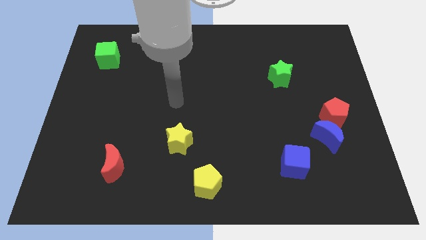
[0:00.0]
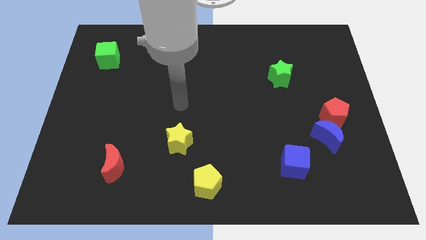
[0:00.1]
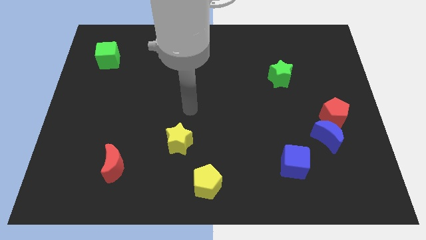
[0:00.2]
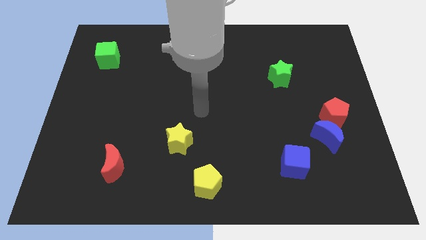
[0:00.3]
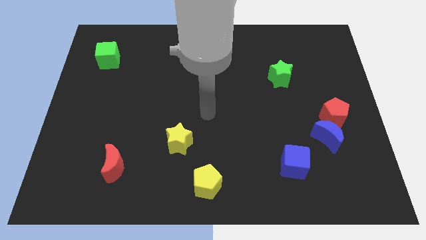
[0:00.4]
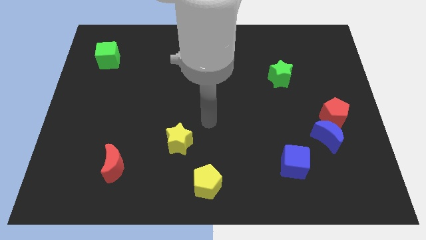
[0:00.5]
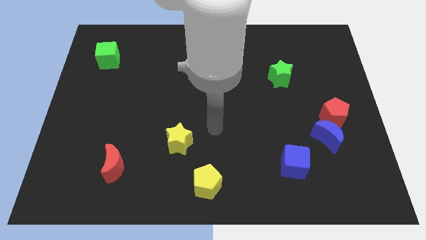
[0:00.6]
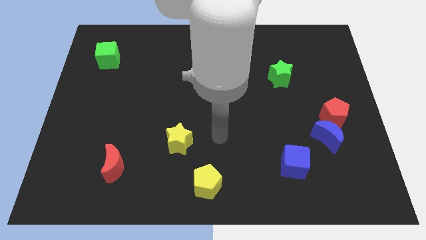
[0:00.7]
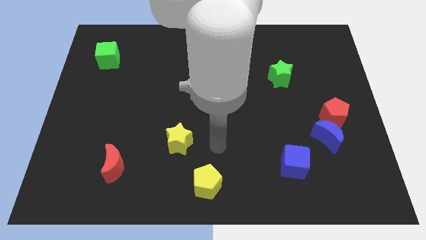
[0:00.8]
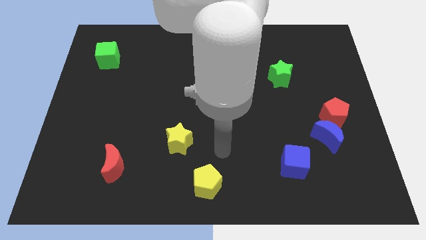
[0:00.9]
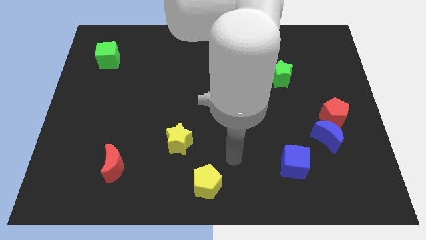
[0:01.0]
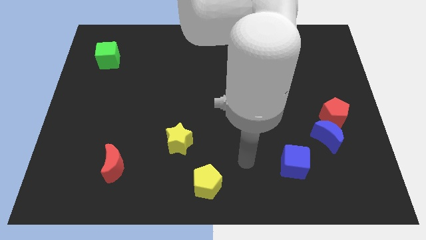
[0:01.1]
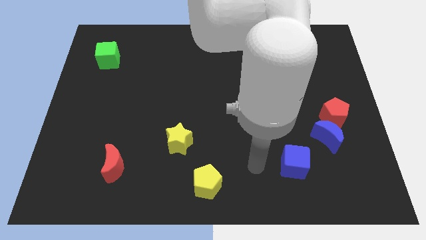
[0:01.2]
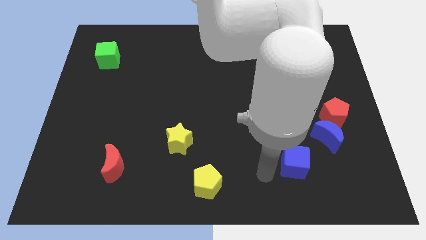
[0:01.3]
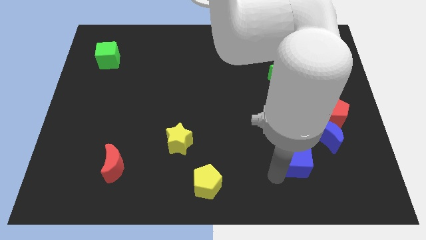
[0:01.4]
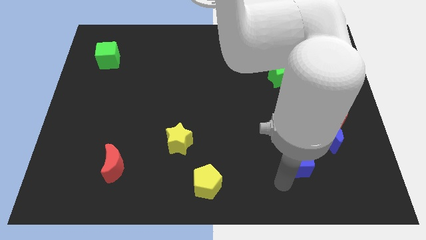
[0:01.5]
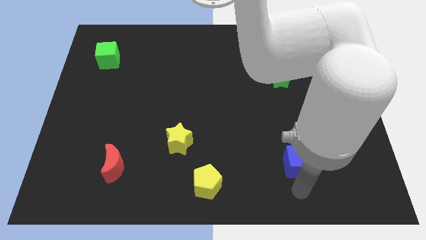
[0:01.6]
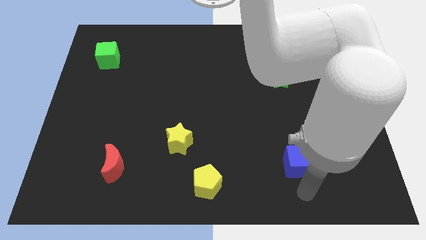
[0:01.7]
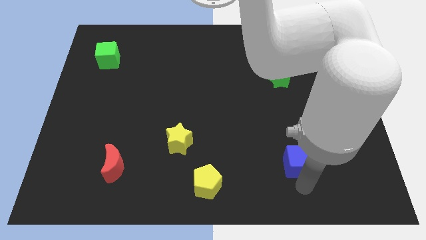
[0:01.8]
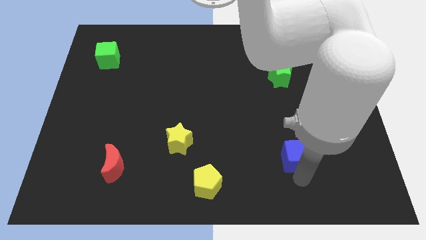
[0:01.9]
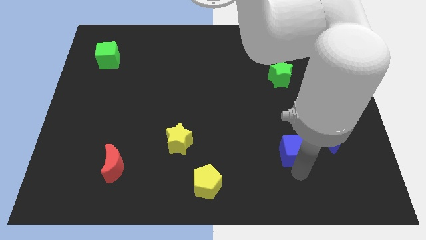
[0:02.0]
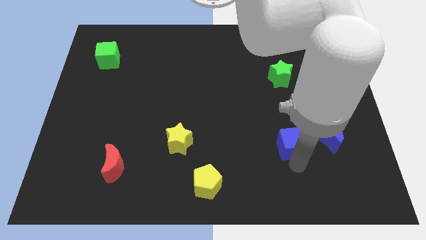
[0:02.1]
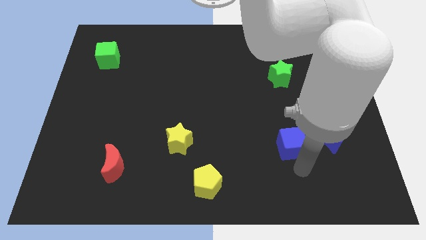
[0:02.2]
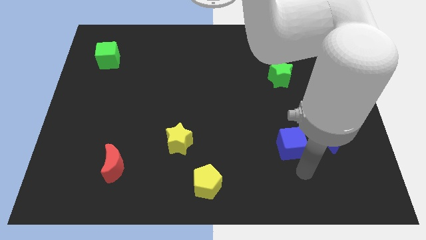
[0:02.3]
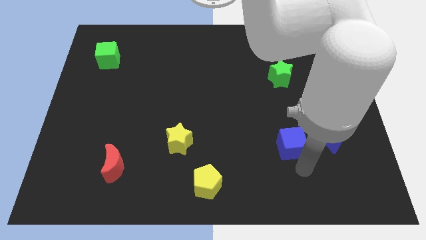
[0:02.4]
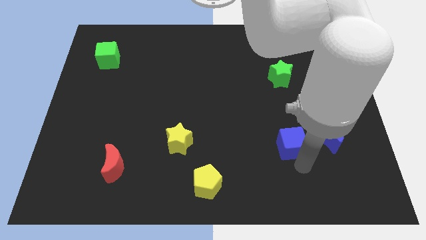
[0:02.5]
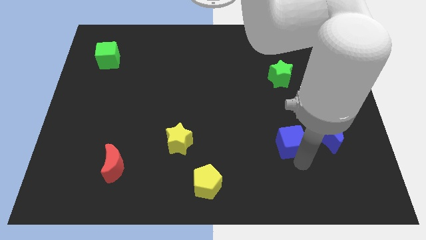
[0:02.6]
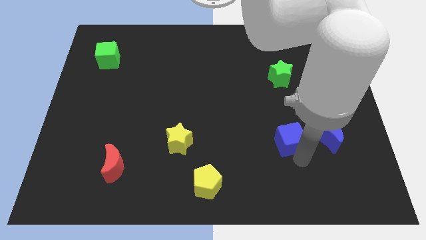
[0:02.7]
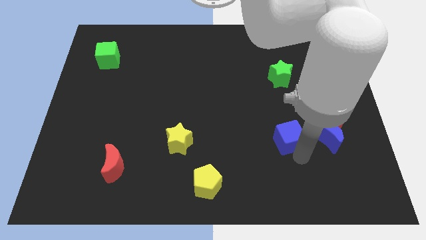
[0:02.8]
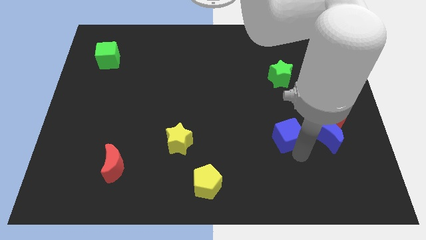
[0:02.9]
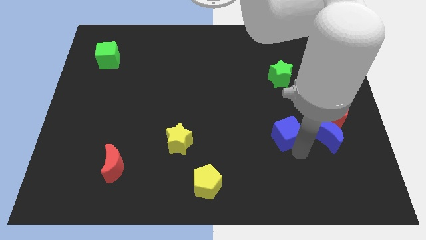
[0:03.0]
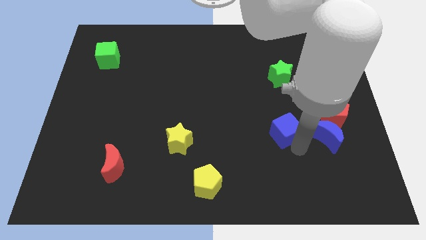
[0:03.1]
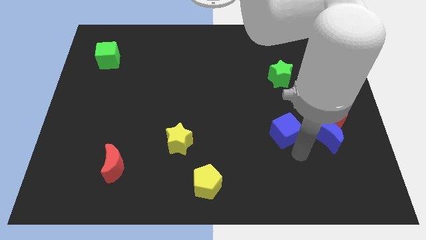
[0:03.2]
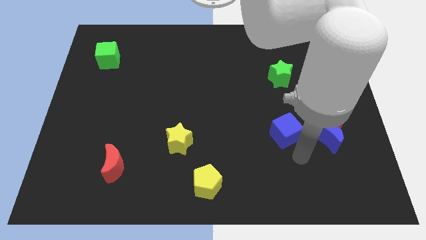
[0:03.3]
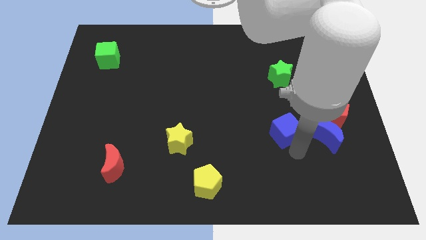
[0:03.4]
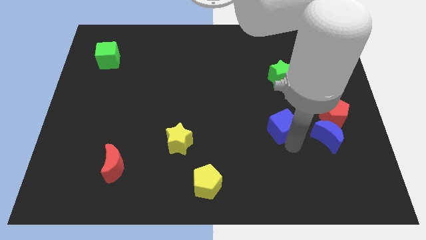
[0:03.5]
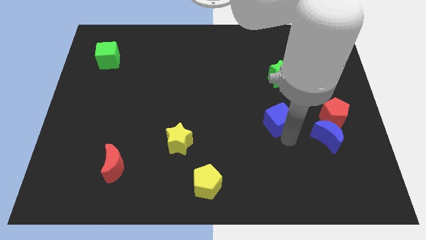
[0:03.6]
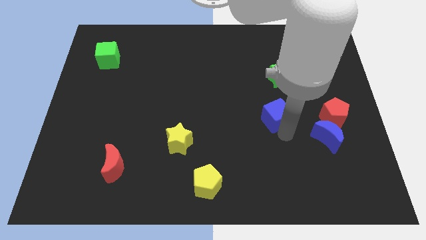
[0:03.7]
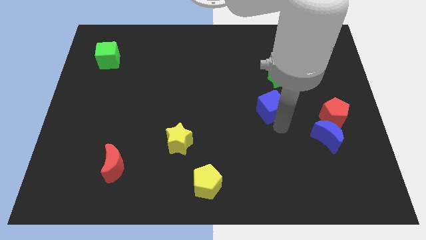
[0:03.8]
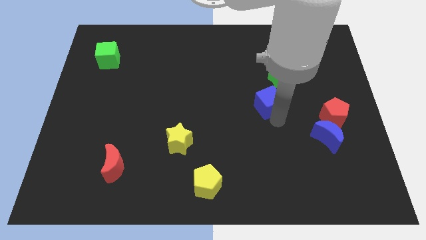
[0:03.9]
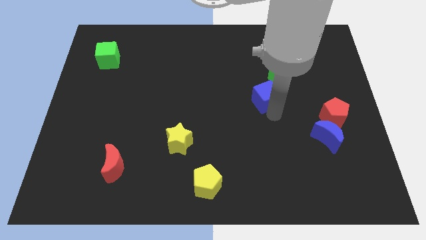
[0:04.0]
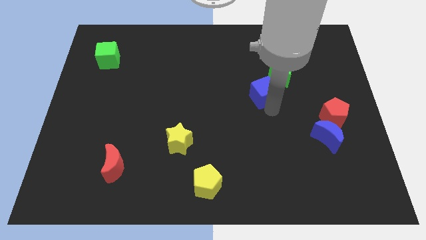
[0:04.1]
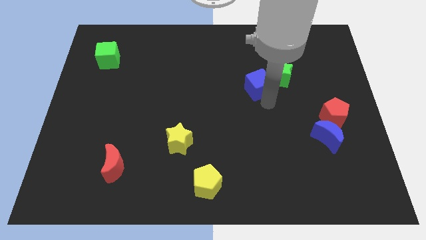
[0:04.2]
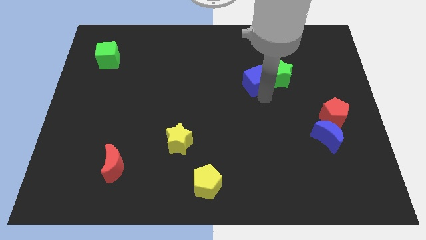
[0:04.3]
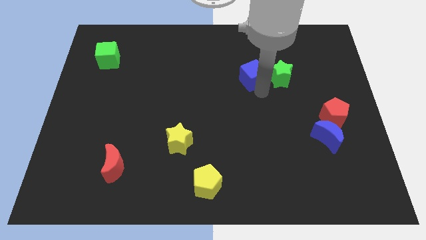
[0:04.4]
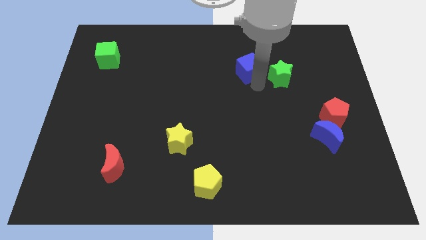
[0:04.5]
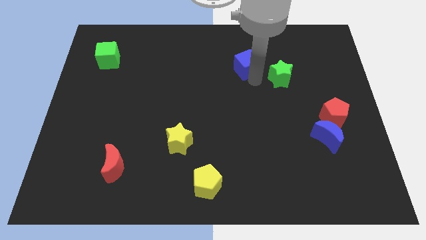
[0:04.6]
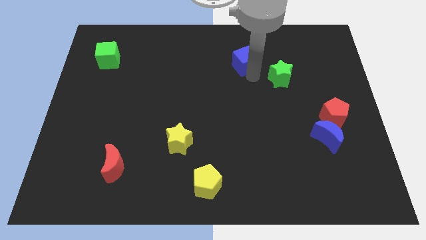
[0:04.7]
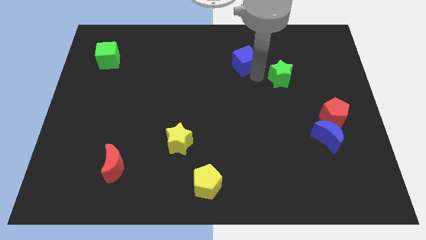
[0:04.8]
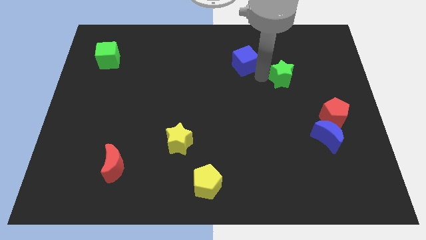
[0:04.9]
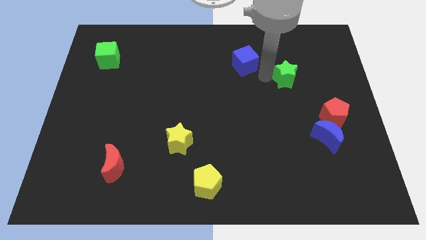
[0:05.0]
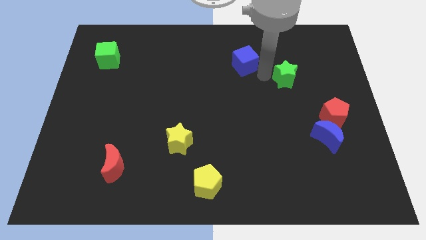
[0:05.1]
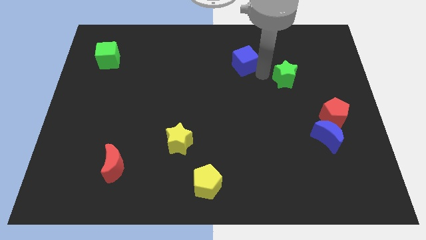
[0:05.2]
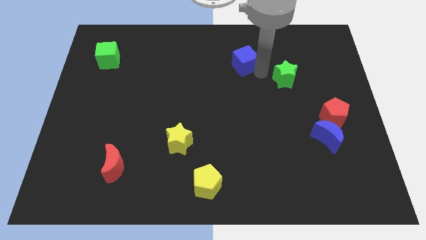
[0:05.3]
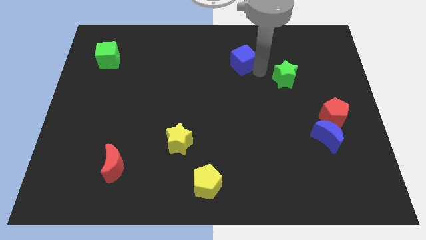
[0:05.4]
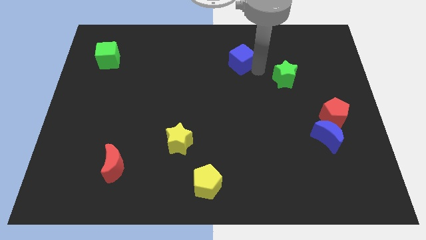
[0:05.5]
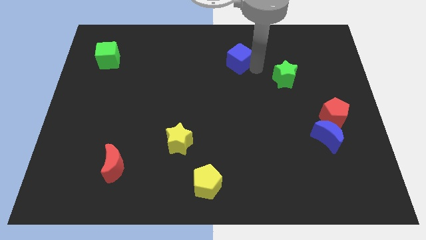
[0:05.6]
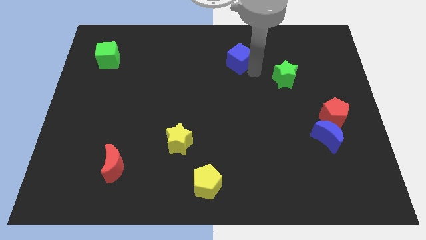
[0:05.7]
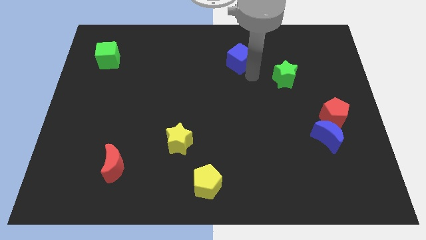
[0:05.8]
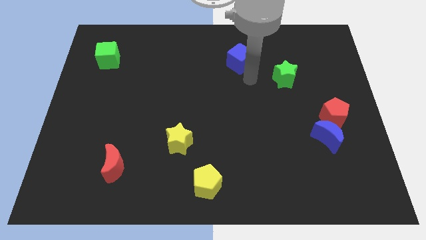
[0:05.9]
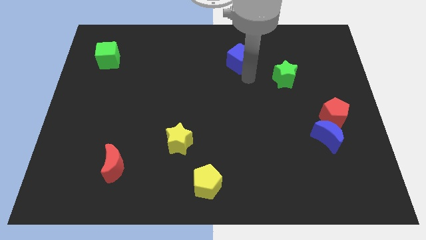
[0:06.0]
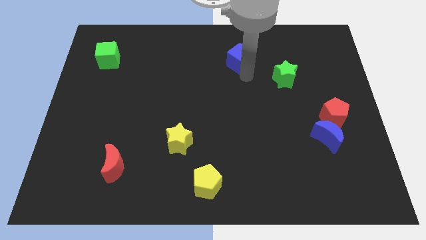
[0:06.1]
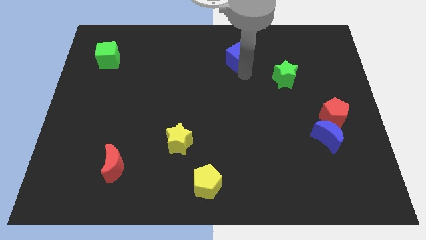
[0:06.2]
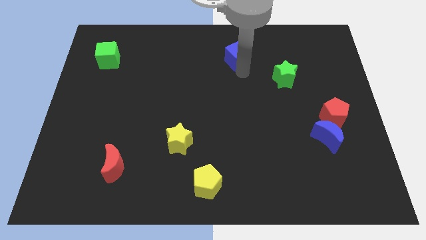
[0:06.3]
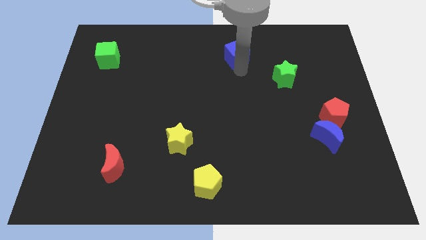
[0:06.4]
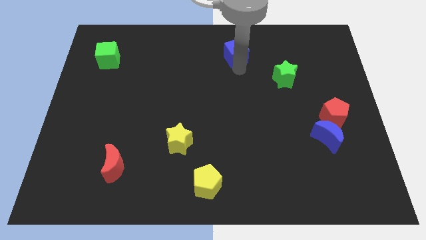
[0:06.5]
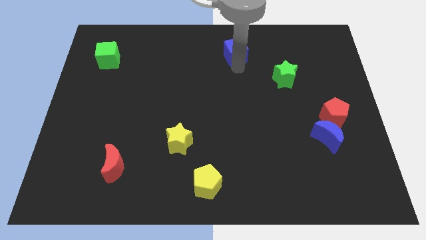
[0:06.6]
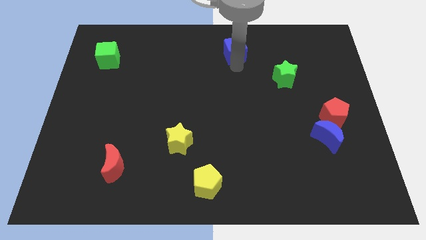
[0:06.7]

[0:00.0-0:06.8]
put the blue cube to the top side

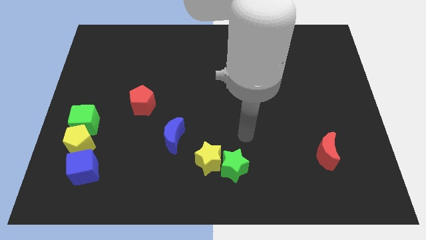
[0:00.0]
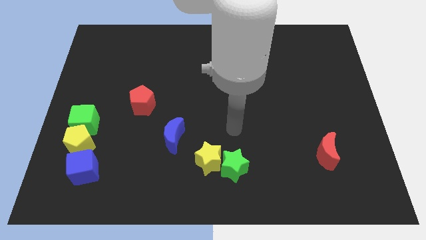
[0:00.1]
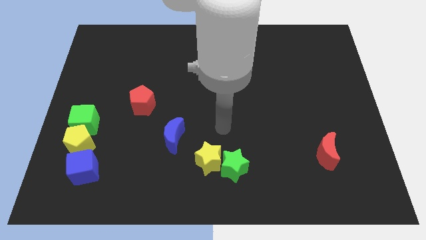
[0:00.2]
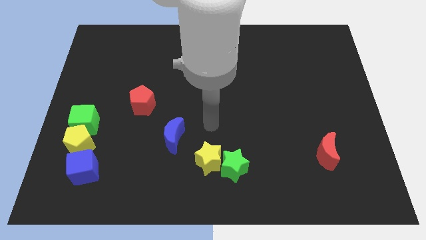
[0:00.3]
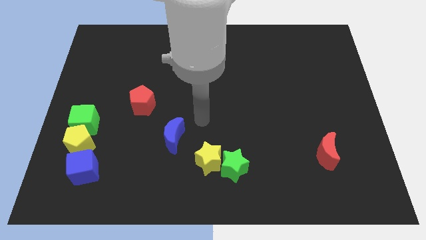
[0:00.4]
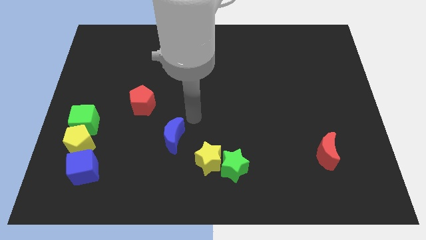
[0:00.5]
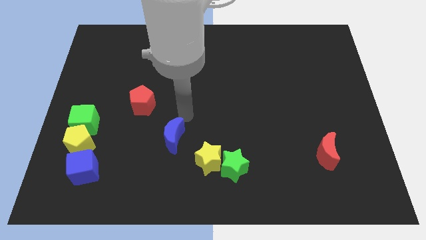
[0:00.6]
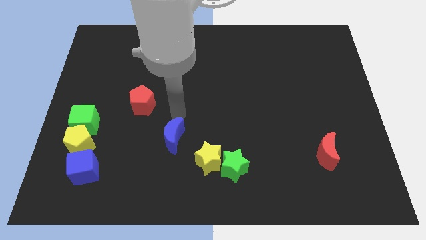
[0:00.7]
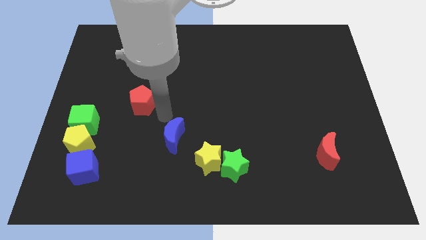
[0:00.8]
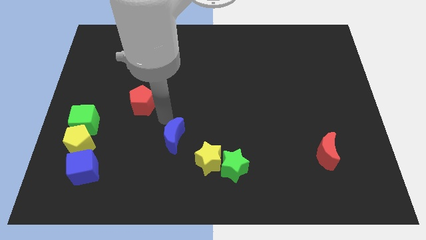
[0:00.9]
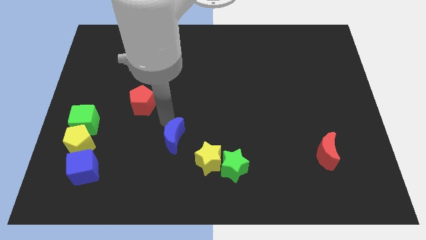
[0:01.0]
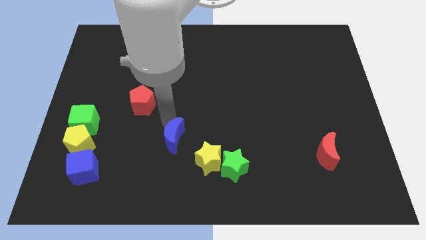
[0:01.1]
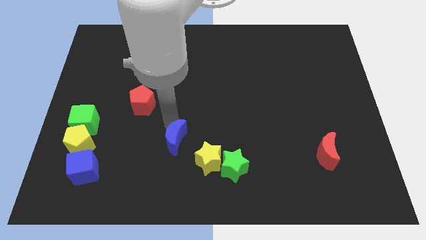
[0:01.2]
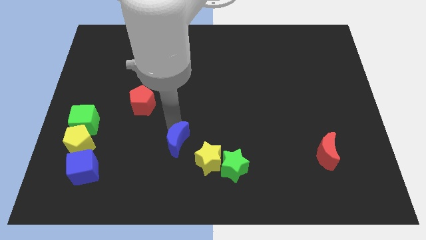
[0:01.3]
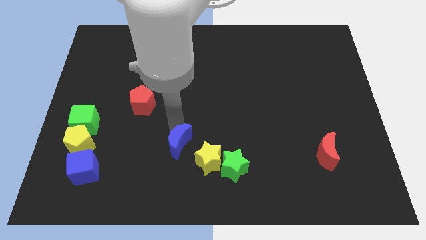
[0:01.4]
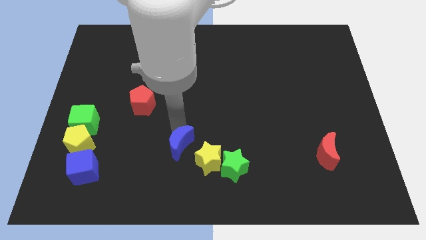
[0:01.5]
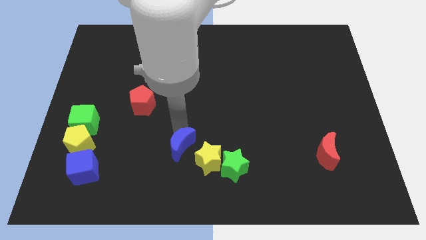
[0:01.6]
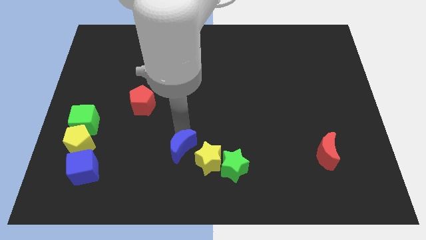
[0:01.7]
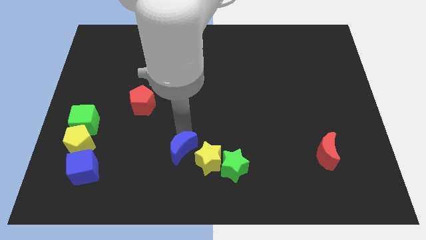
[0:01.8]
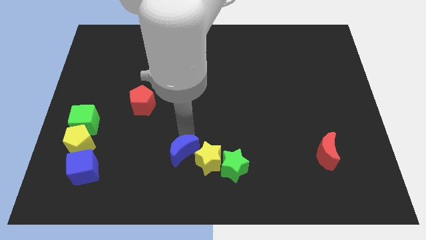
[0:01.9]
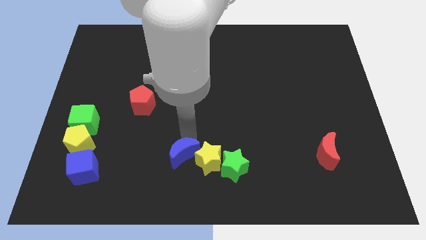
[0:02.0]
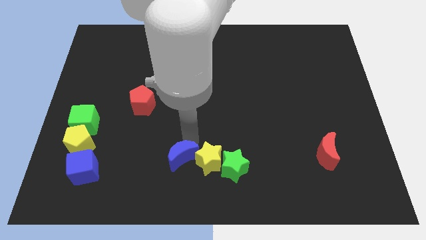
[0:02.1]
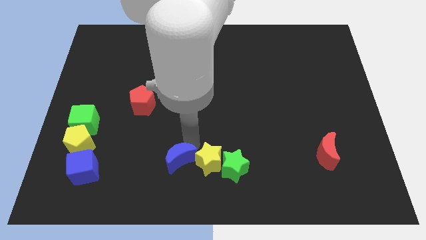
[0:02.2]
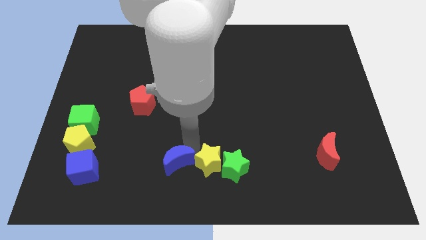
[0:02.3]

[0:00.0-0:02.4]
push the blue moon to the bottom side
